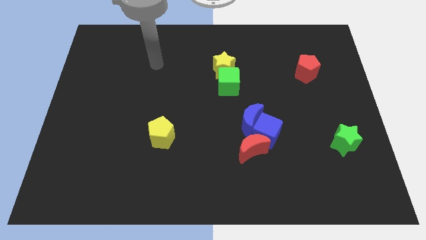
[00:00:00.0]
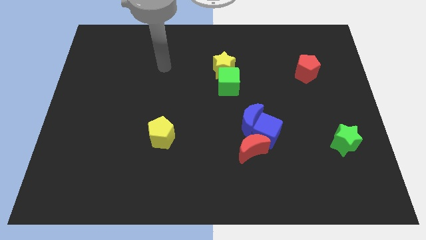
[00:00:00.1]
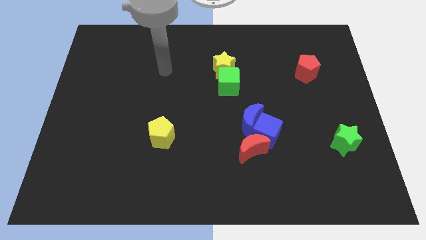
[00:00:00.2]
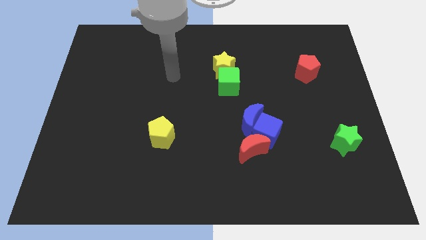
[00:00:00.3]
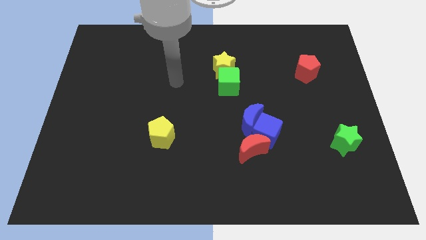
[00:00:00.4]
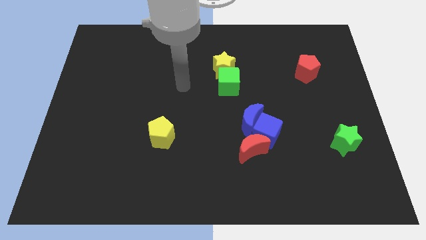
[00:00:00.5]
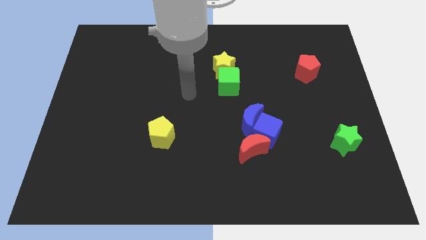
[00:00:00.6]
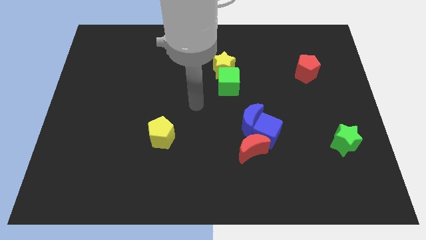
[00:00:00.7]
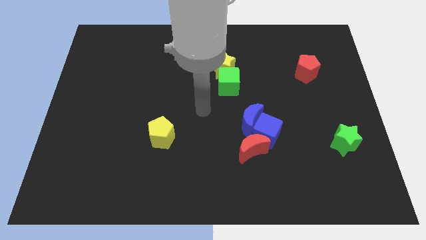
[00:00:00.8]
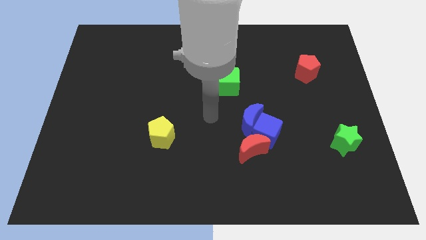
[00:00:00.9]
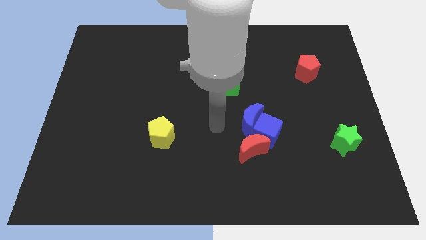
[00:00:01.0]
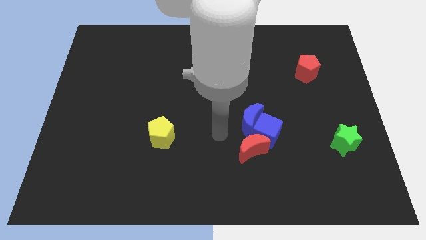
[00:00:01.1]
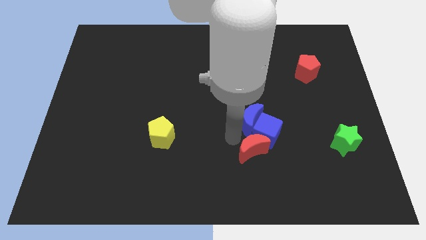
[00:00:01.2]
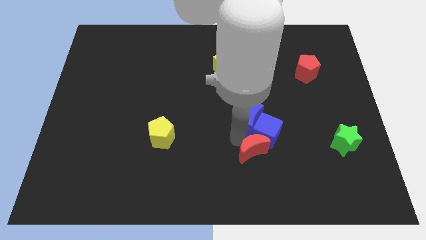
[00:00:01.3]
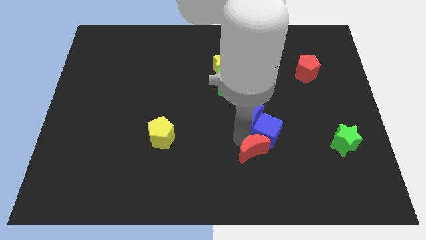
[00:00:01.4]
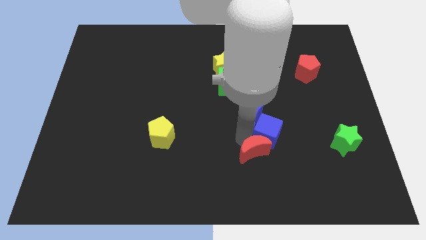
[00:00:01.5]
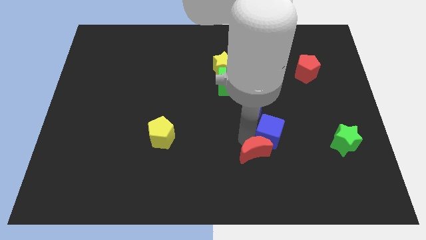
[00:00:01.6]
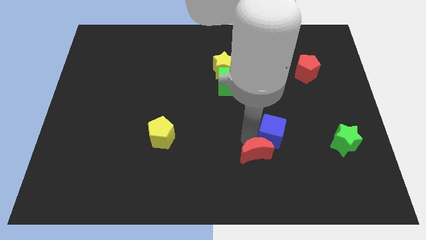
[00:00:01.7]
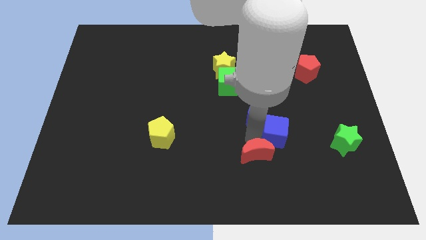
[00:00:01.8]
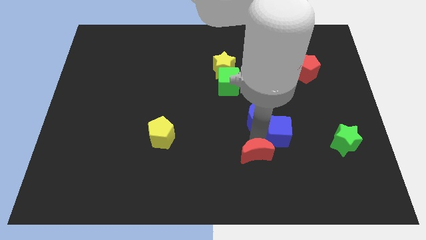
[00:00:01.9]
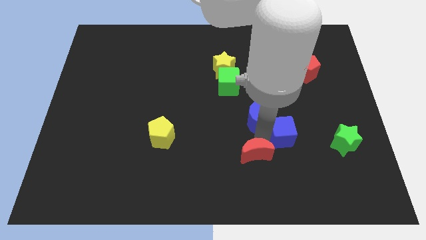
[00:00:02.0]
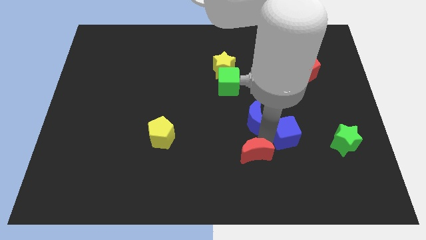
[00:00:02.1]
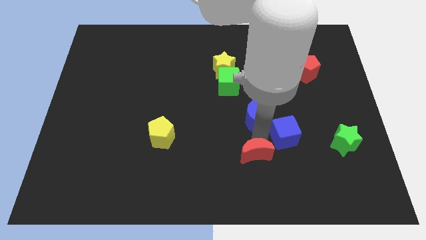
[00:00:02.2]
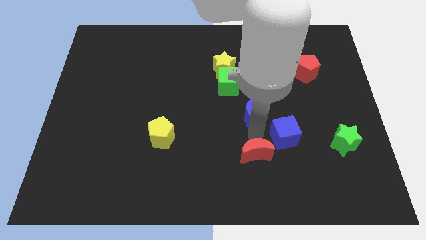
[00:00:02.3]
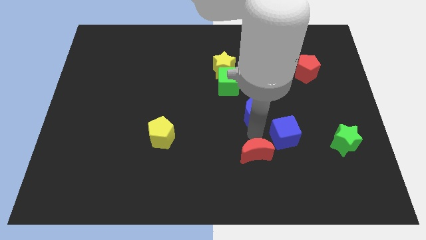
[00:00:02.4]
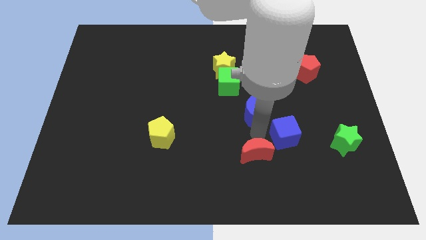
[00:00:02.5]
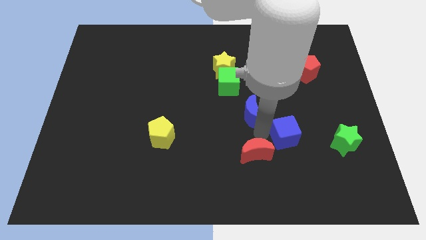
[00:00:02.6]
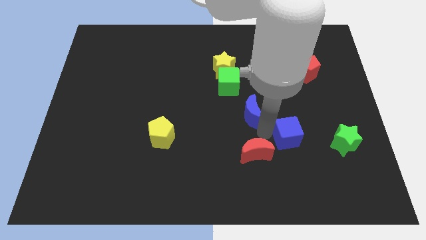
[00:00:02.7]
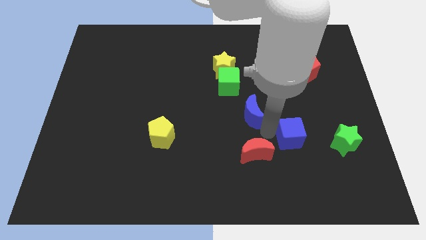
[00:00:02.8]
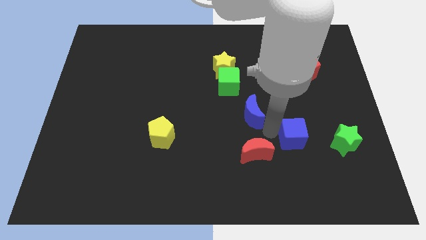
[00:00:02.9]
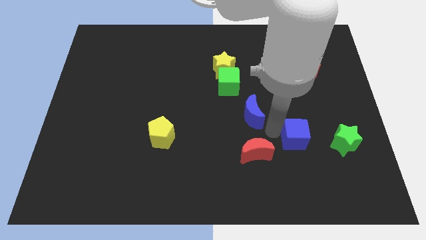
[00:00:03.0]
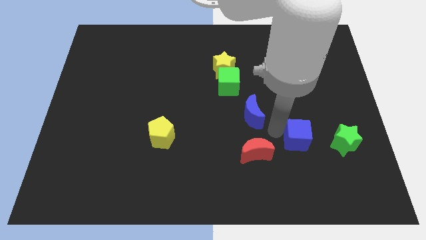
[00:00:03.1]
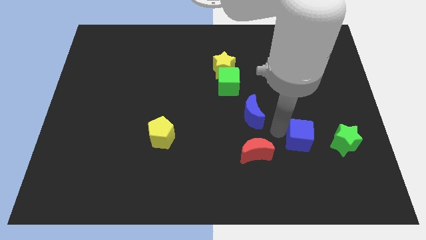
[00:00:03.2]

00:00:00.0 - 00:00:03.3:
pull the blue cube apart from the blue moon and red moon

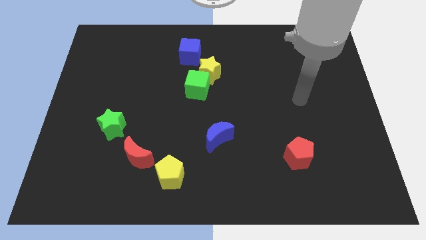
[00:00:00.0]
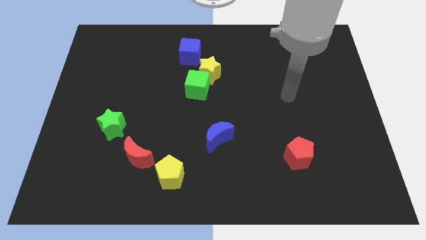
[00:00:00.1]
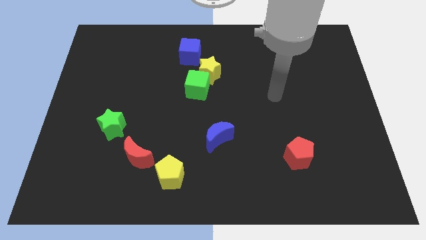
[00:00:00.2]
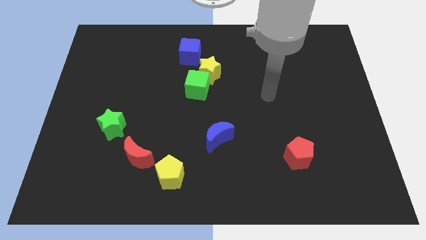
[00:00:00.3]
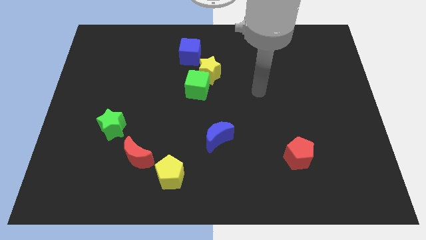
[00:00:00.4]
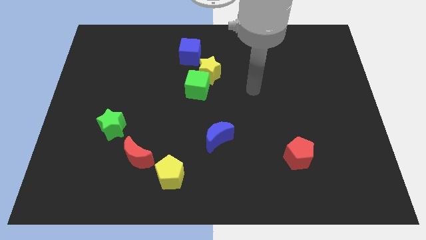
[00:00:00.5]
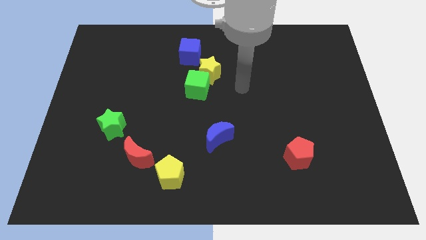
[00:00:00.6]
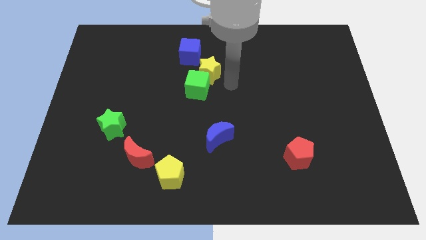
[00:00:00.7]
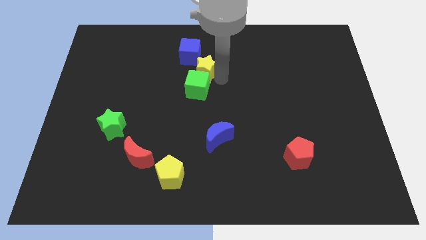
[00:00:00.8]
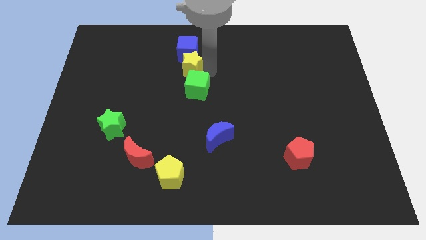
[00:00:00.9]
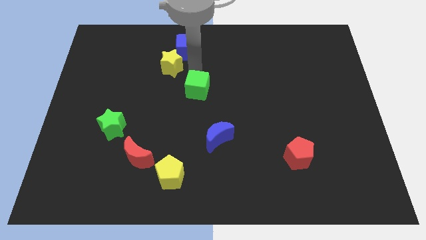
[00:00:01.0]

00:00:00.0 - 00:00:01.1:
separate the green cube from the yellow star

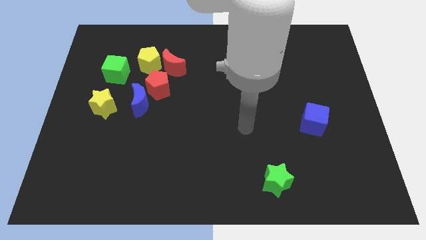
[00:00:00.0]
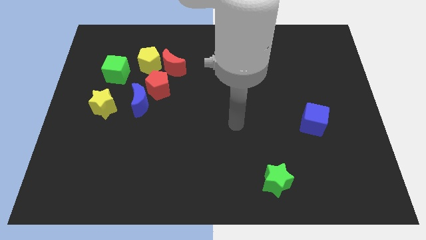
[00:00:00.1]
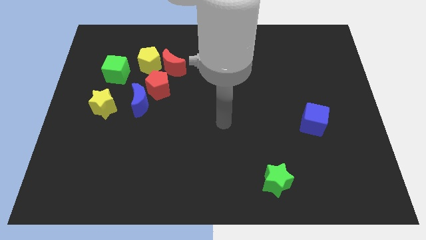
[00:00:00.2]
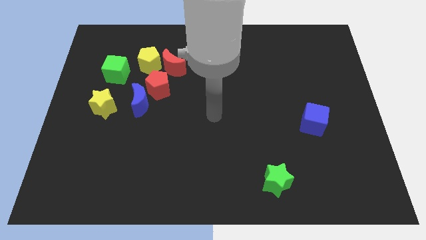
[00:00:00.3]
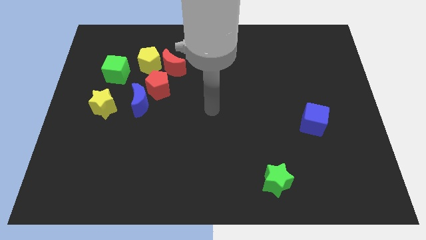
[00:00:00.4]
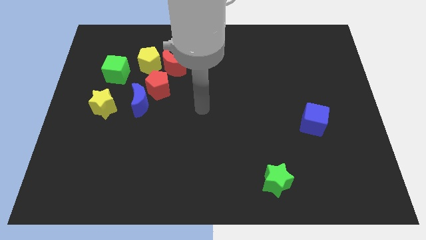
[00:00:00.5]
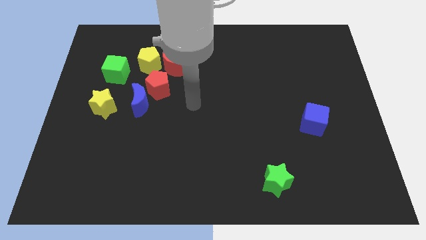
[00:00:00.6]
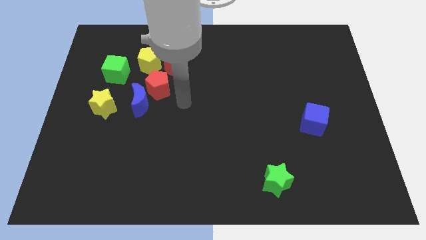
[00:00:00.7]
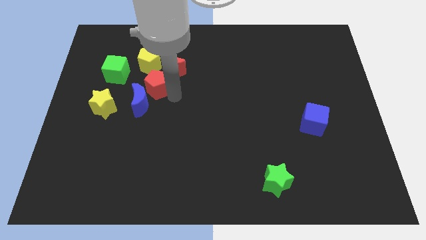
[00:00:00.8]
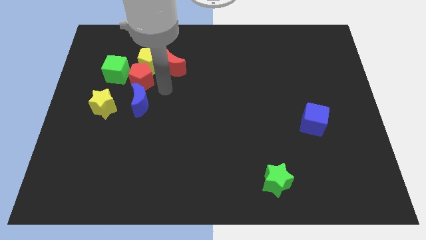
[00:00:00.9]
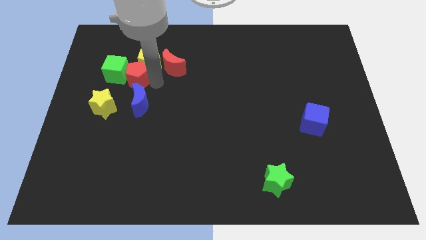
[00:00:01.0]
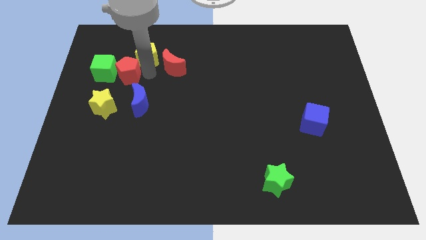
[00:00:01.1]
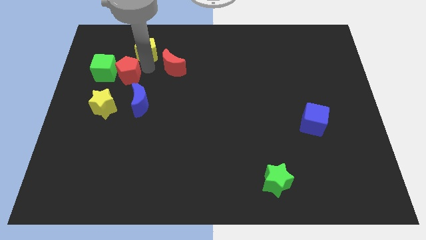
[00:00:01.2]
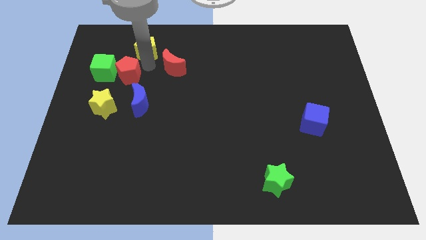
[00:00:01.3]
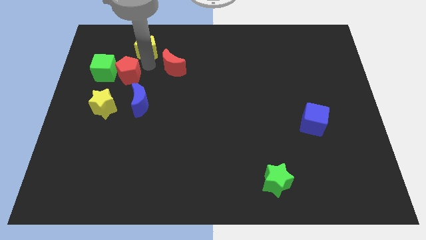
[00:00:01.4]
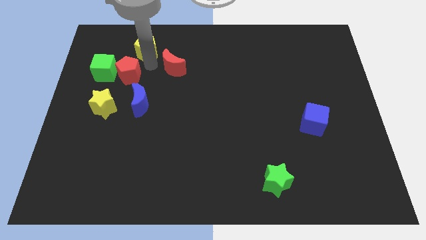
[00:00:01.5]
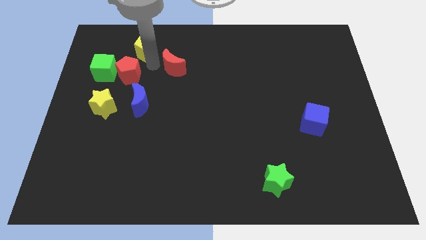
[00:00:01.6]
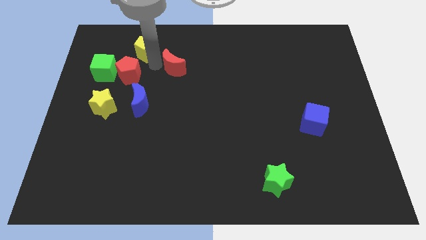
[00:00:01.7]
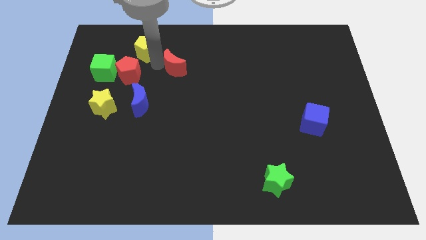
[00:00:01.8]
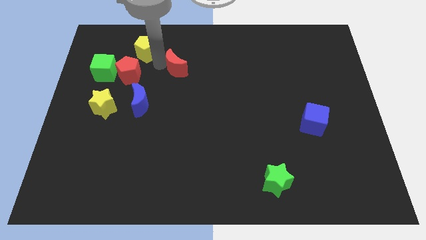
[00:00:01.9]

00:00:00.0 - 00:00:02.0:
move the red moon away from the yellow pentagon and red pentagon

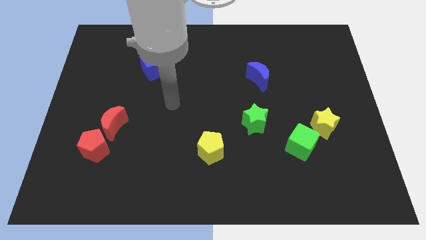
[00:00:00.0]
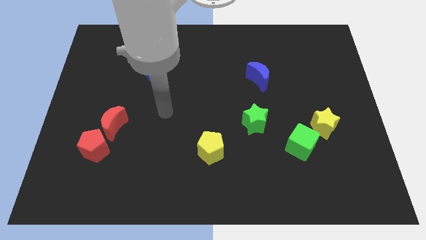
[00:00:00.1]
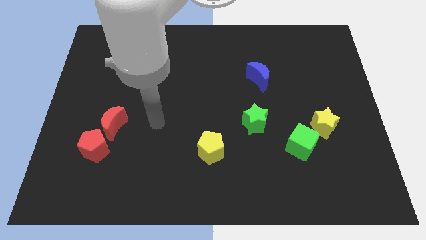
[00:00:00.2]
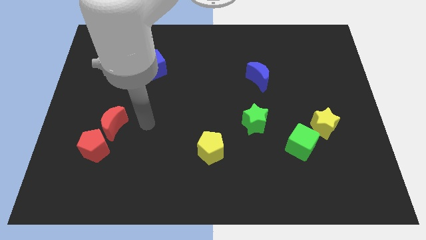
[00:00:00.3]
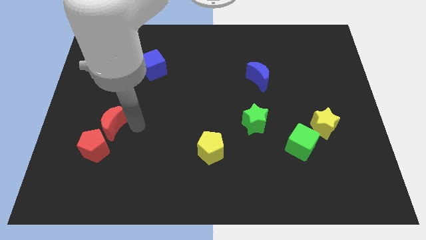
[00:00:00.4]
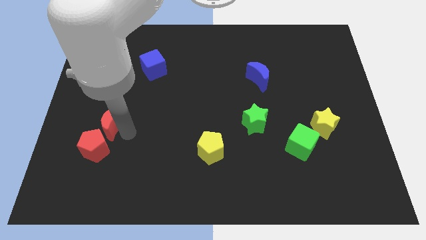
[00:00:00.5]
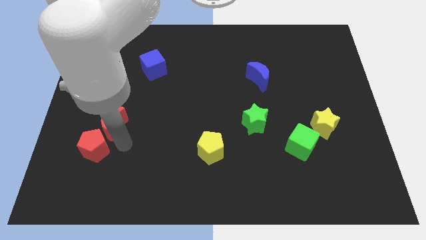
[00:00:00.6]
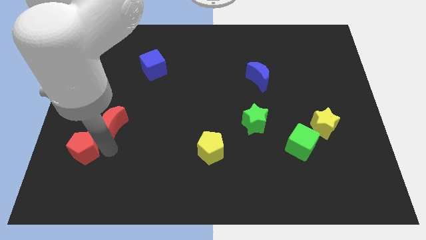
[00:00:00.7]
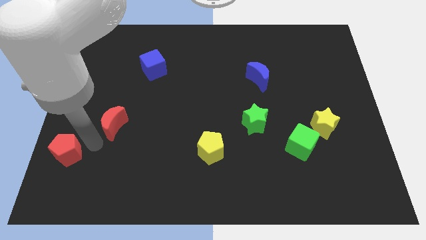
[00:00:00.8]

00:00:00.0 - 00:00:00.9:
separate the red moon from the red pentagon

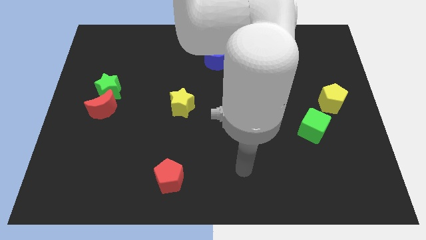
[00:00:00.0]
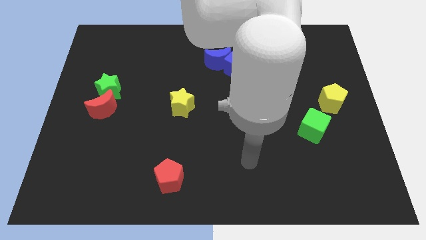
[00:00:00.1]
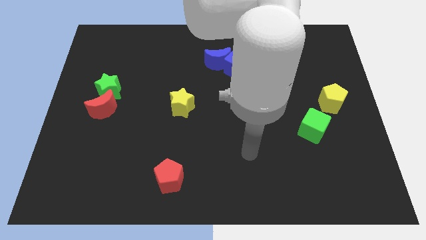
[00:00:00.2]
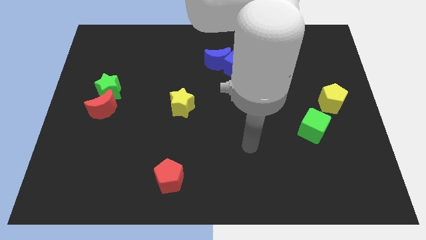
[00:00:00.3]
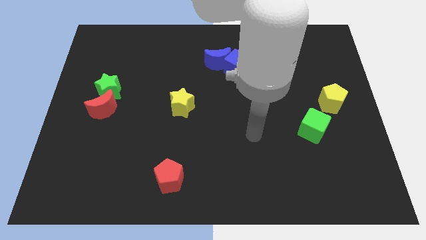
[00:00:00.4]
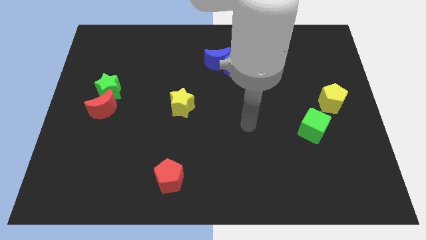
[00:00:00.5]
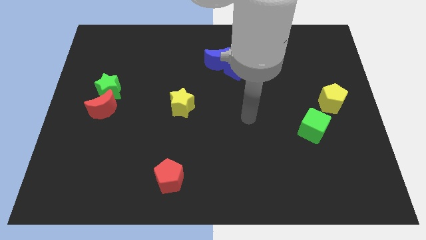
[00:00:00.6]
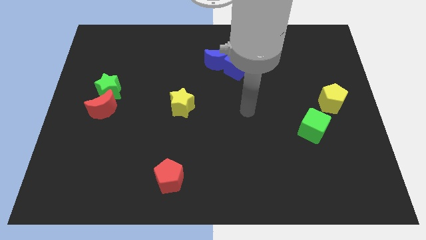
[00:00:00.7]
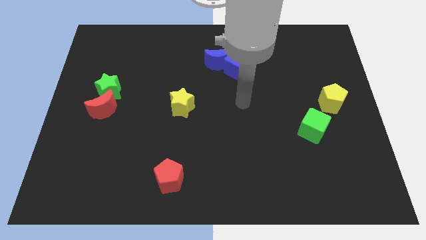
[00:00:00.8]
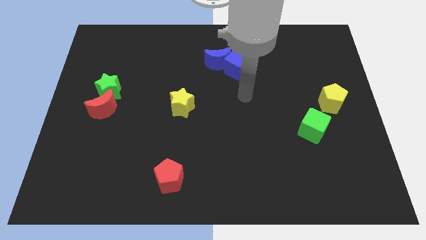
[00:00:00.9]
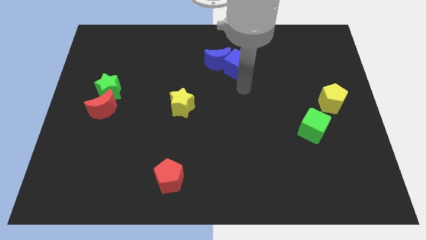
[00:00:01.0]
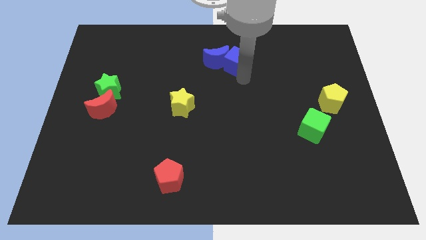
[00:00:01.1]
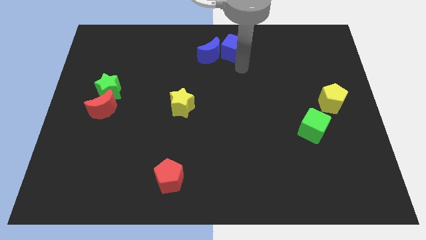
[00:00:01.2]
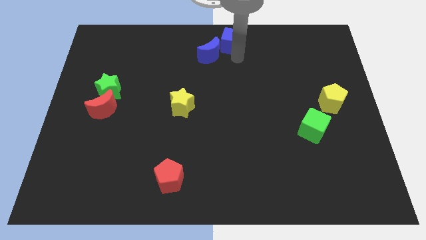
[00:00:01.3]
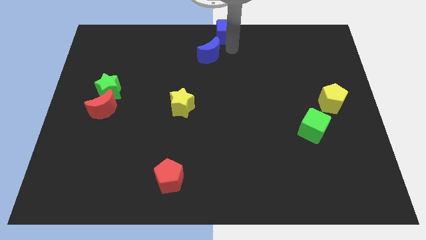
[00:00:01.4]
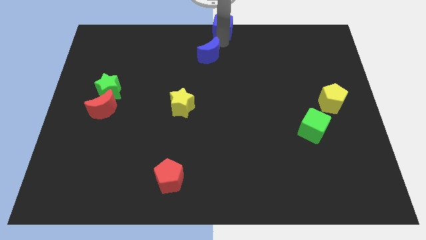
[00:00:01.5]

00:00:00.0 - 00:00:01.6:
pull the blue moon apart from the blue cube

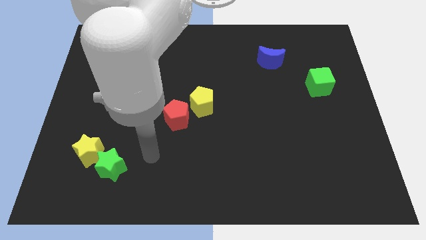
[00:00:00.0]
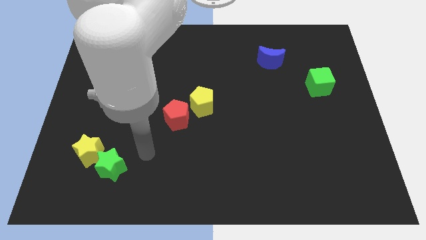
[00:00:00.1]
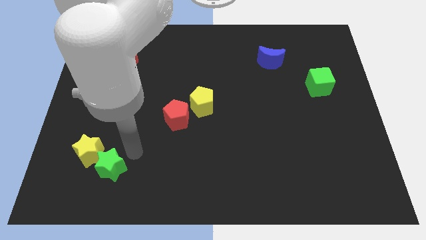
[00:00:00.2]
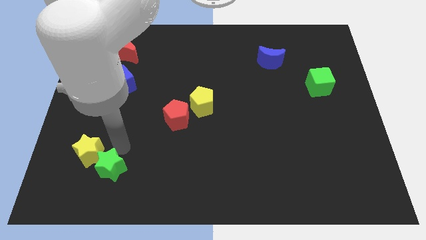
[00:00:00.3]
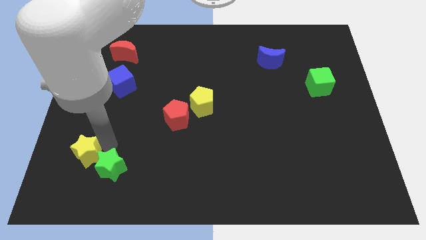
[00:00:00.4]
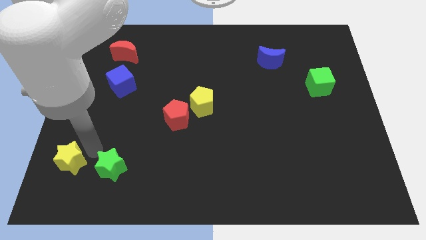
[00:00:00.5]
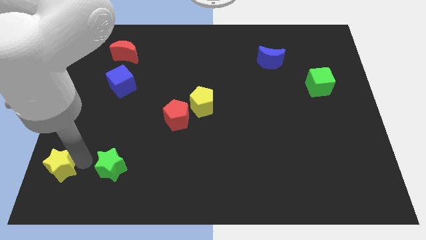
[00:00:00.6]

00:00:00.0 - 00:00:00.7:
separate the green star from the yellow star
